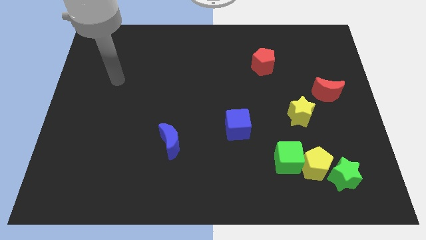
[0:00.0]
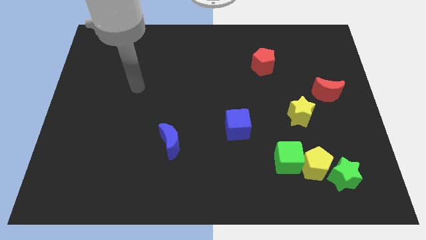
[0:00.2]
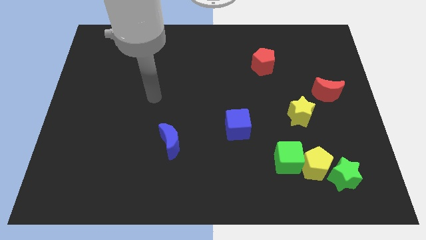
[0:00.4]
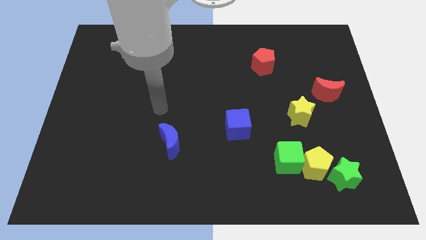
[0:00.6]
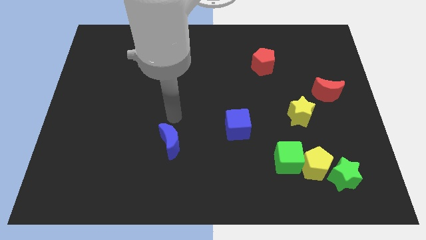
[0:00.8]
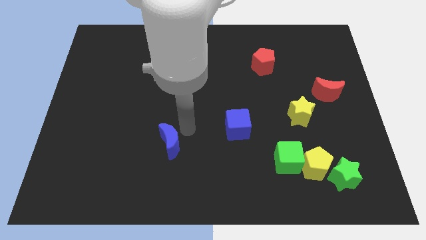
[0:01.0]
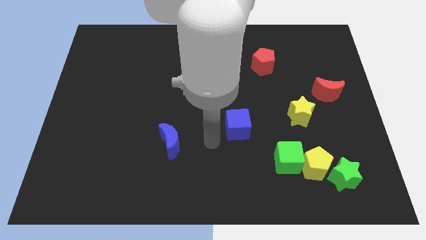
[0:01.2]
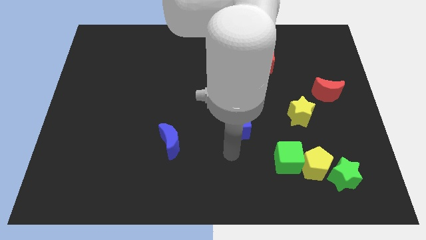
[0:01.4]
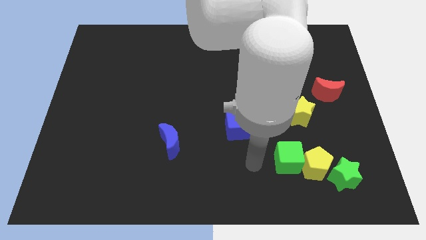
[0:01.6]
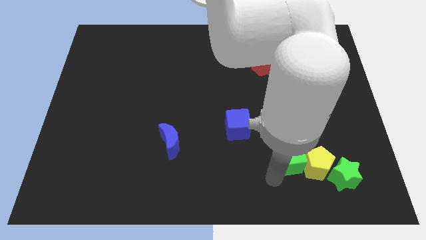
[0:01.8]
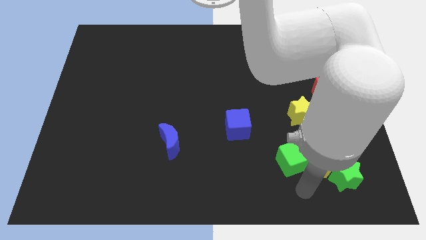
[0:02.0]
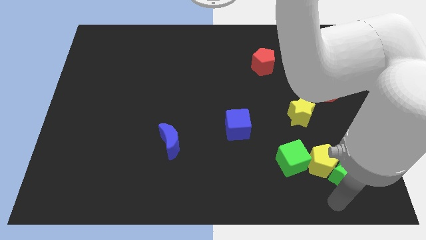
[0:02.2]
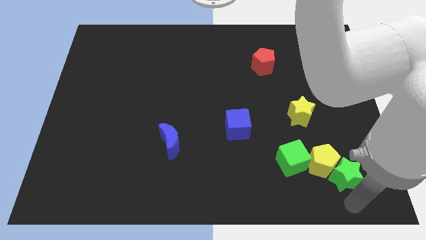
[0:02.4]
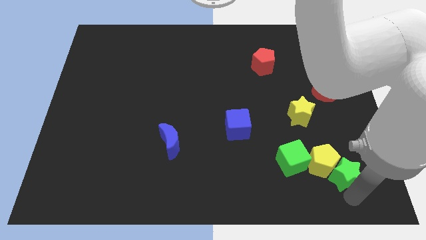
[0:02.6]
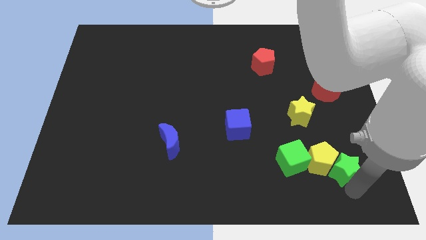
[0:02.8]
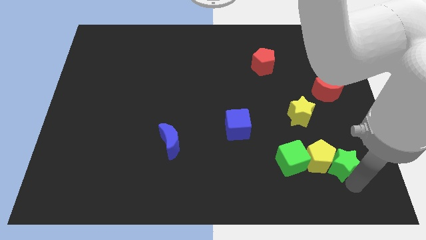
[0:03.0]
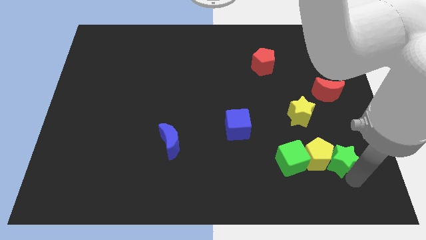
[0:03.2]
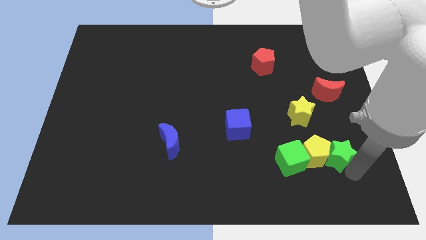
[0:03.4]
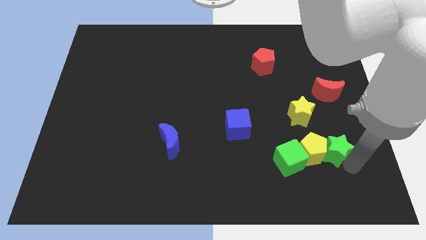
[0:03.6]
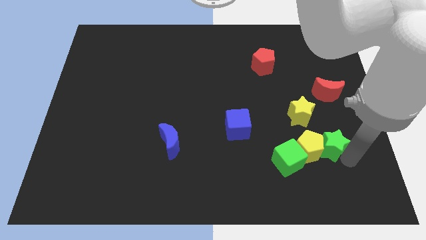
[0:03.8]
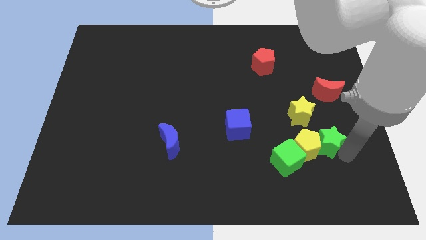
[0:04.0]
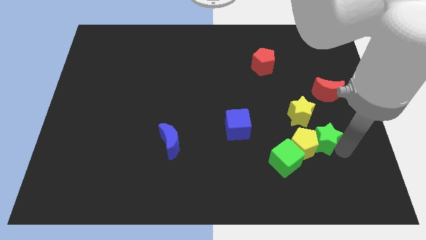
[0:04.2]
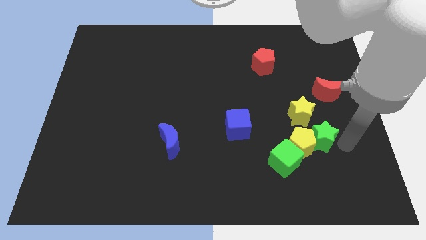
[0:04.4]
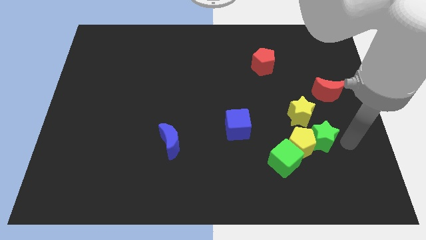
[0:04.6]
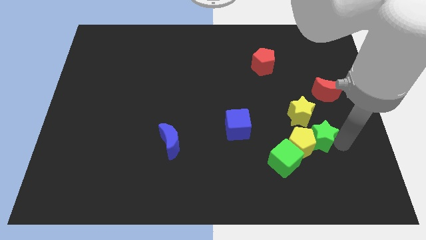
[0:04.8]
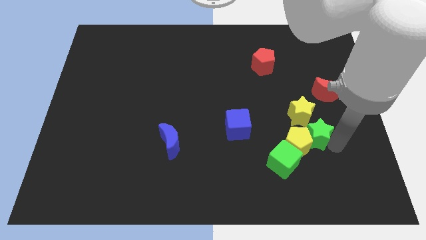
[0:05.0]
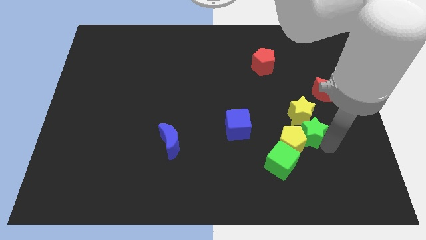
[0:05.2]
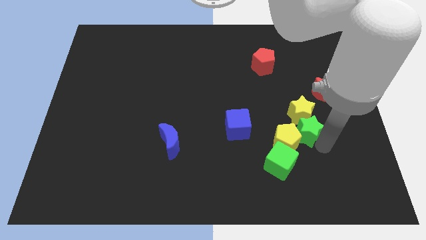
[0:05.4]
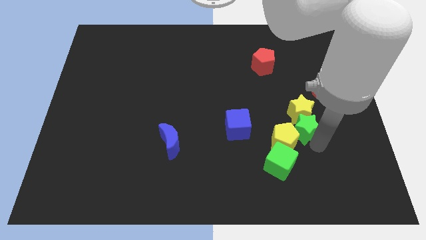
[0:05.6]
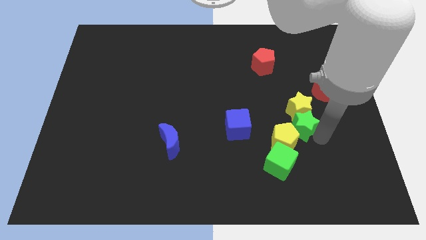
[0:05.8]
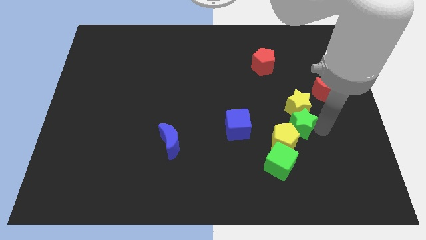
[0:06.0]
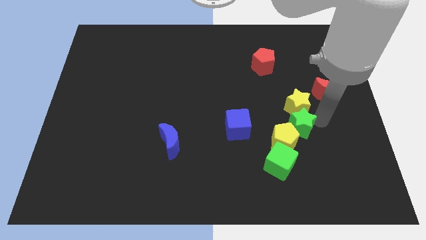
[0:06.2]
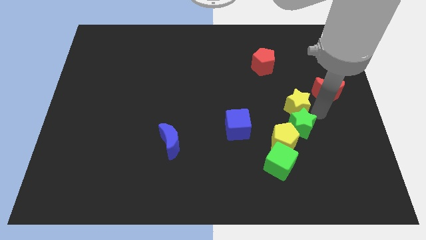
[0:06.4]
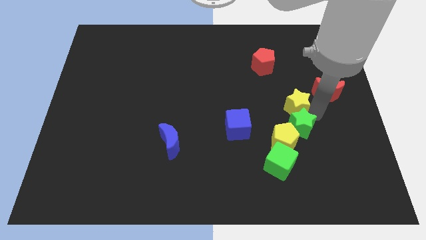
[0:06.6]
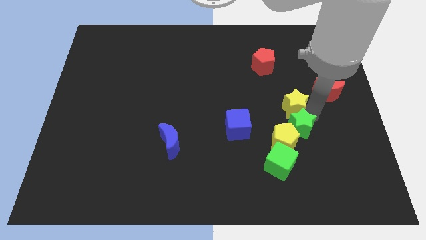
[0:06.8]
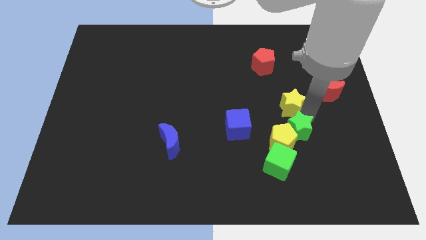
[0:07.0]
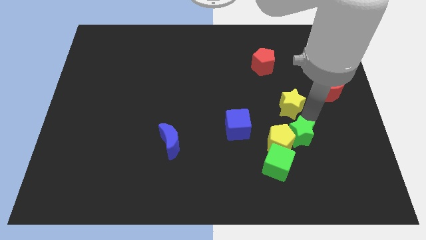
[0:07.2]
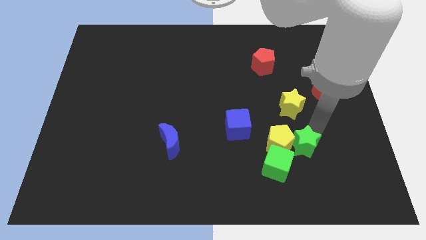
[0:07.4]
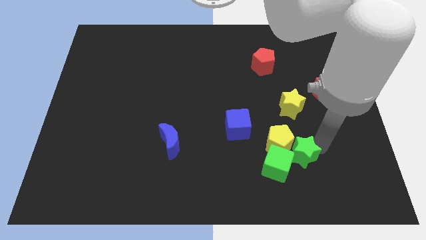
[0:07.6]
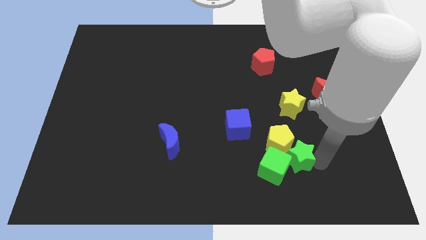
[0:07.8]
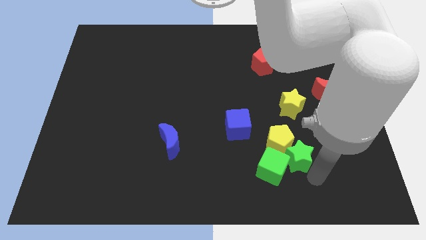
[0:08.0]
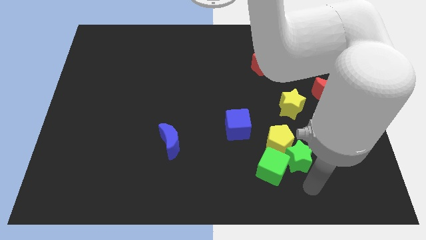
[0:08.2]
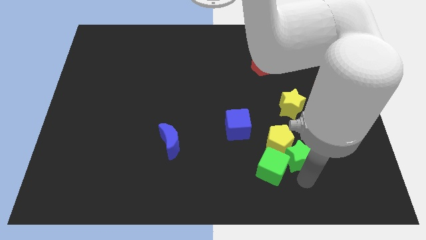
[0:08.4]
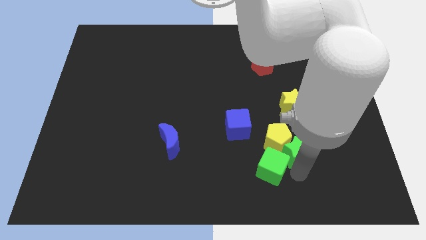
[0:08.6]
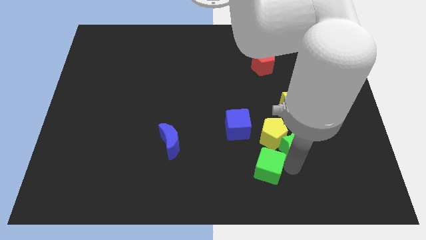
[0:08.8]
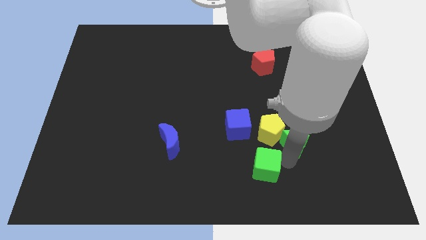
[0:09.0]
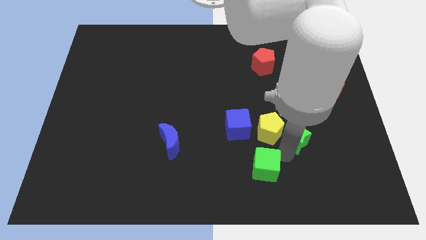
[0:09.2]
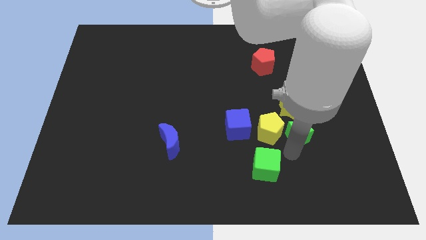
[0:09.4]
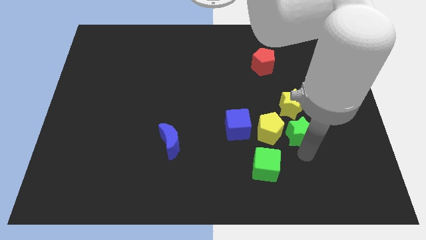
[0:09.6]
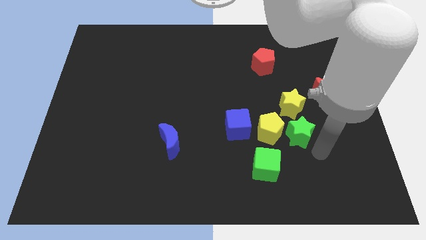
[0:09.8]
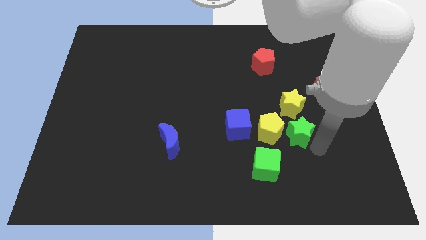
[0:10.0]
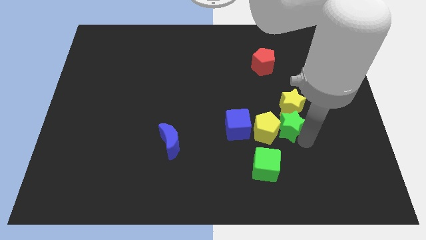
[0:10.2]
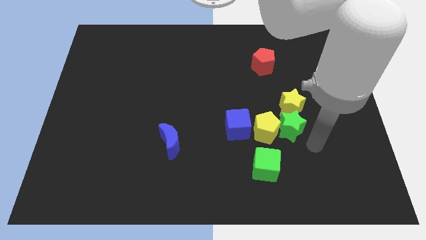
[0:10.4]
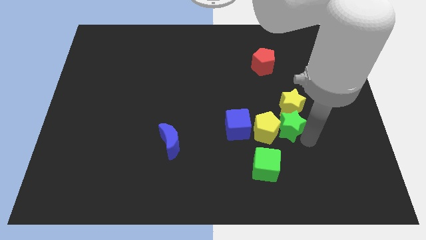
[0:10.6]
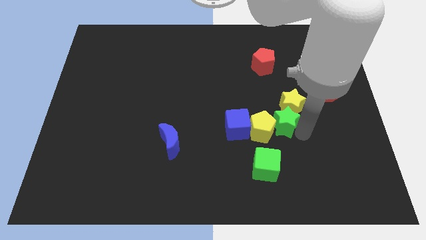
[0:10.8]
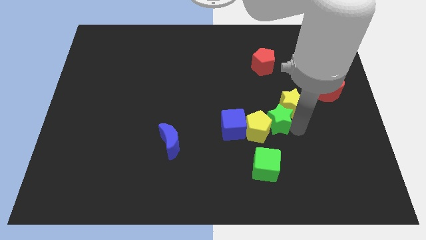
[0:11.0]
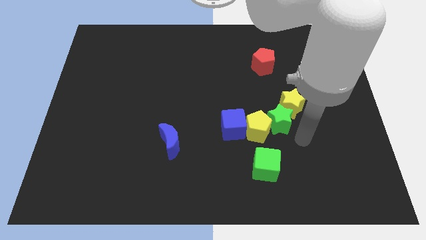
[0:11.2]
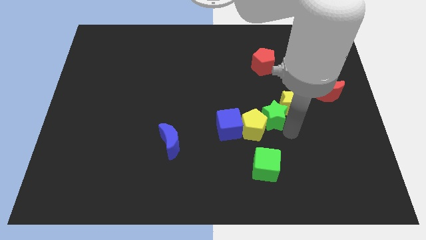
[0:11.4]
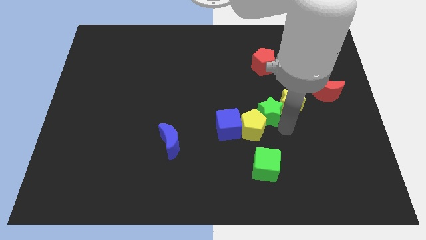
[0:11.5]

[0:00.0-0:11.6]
move the green star diagonally up and left

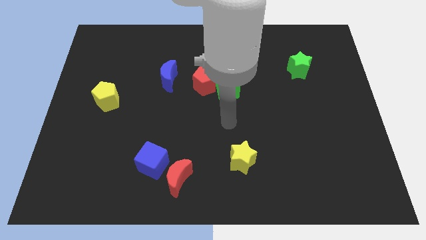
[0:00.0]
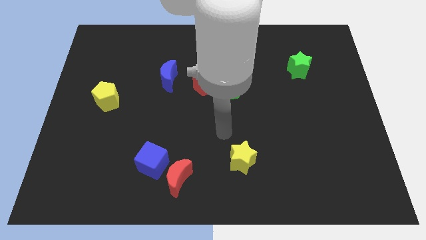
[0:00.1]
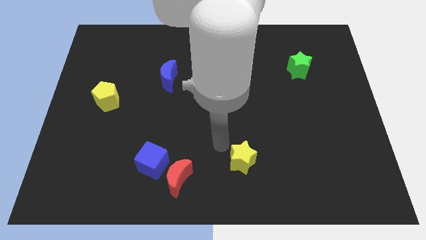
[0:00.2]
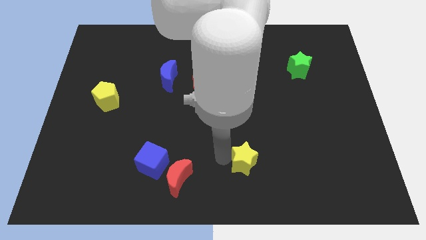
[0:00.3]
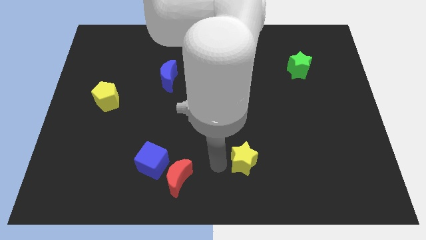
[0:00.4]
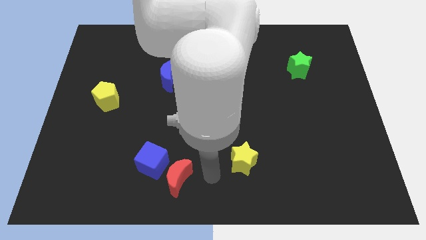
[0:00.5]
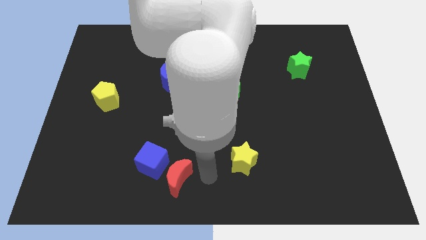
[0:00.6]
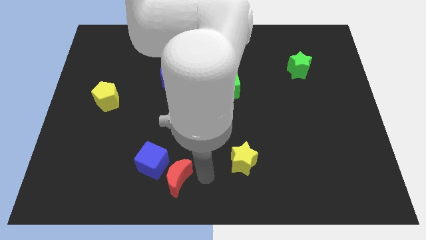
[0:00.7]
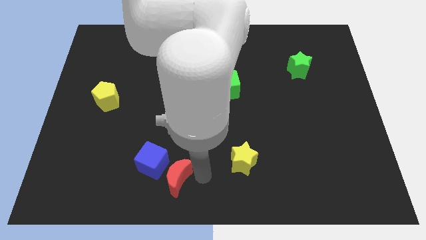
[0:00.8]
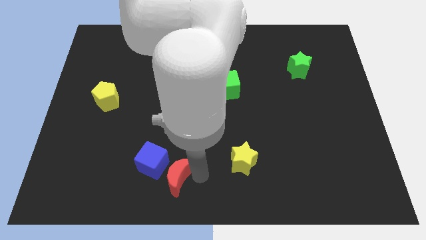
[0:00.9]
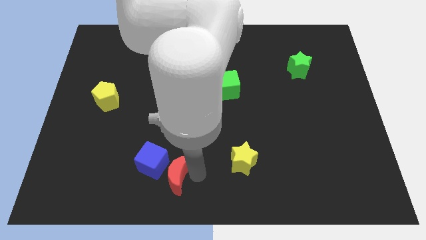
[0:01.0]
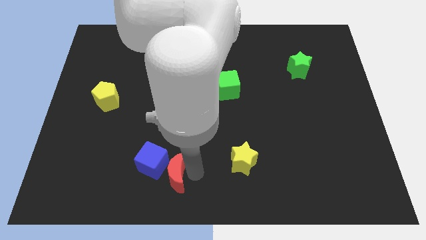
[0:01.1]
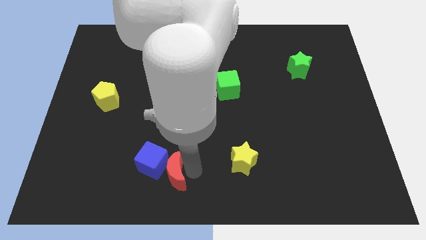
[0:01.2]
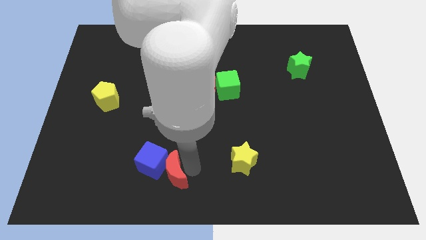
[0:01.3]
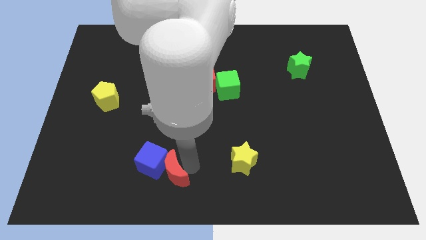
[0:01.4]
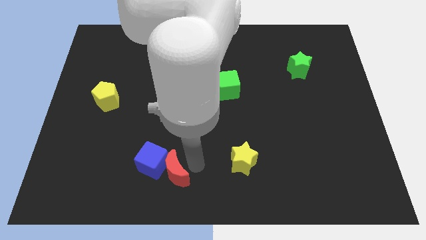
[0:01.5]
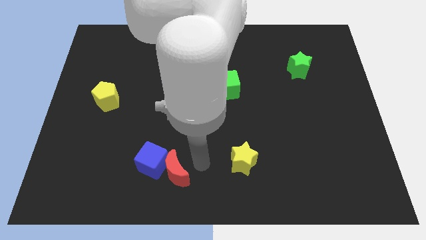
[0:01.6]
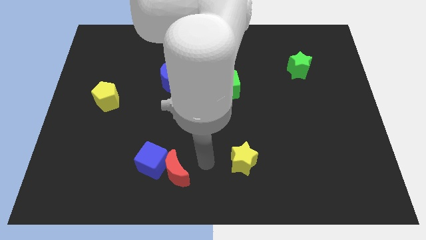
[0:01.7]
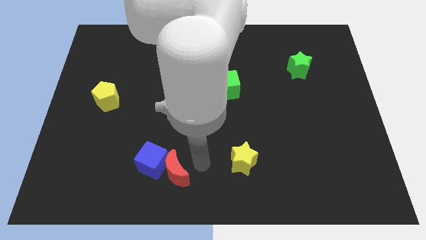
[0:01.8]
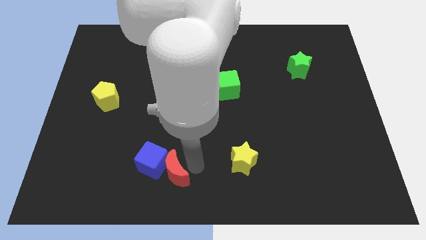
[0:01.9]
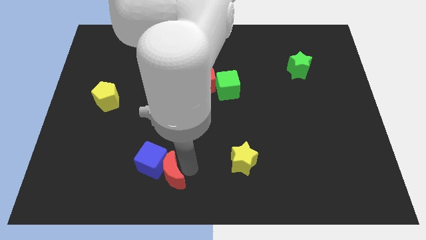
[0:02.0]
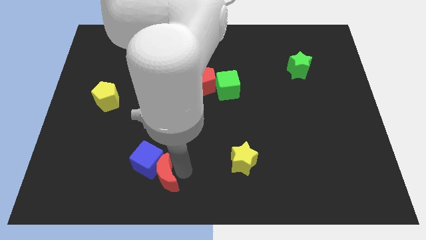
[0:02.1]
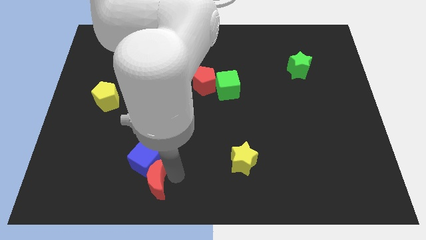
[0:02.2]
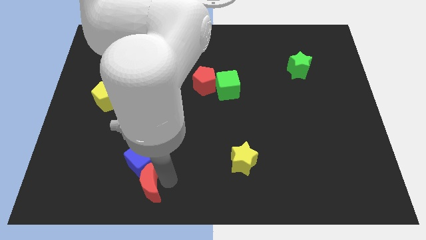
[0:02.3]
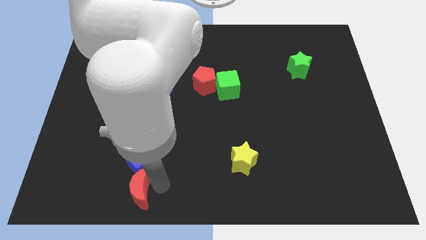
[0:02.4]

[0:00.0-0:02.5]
push the red moon a little bit to the left
